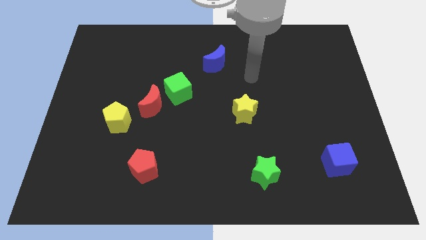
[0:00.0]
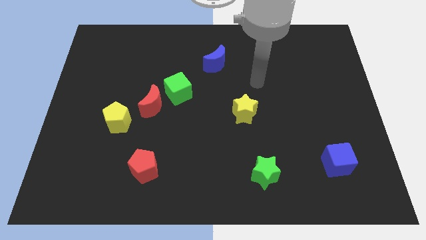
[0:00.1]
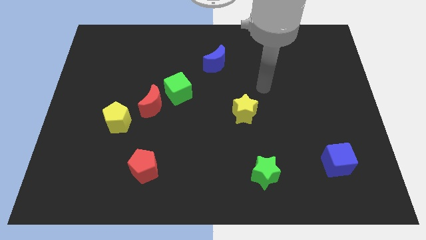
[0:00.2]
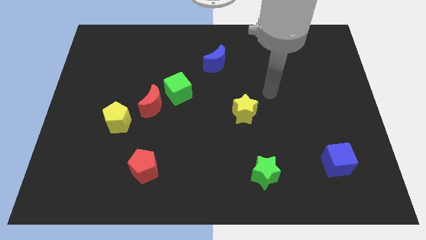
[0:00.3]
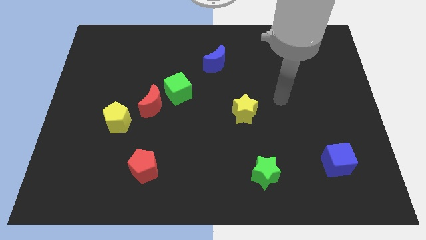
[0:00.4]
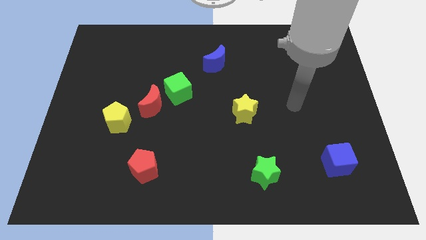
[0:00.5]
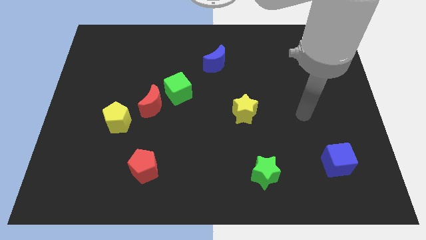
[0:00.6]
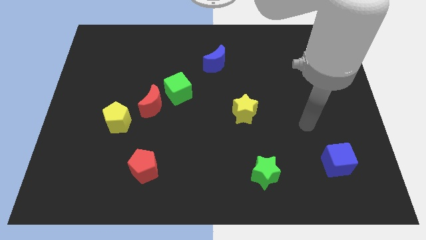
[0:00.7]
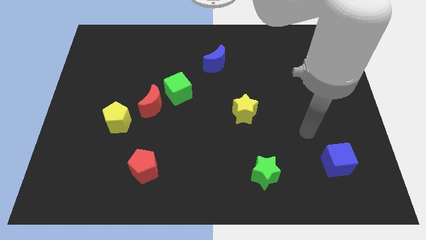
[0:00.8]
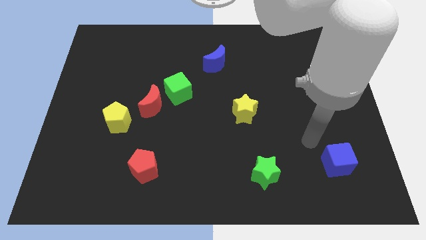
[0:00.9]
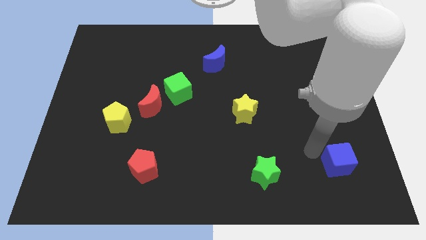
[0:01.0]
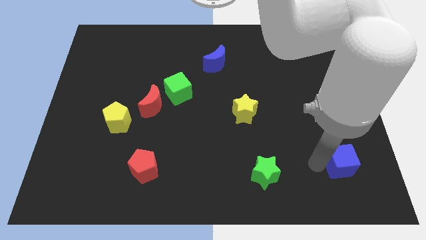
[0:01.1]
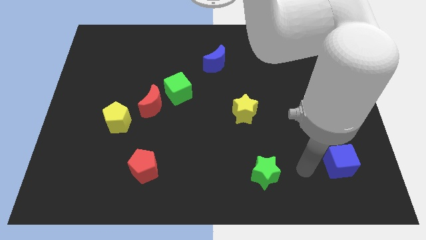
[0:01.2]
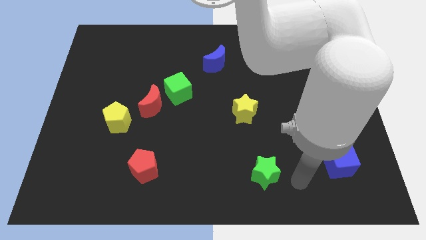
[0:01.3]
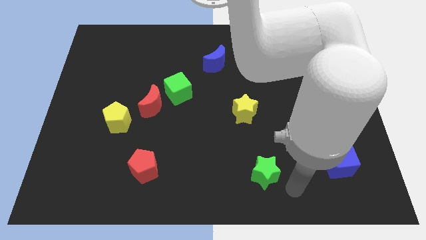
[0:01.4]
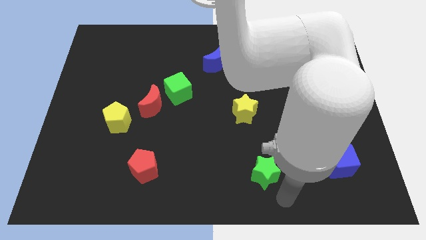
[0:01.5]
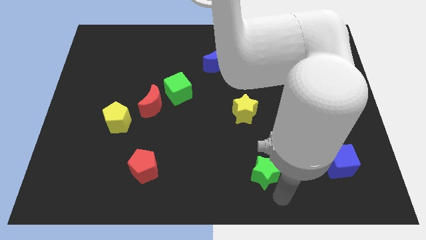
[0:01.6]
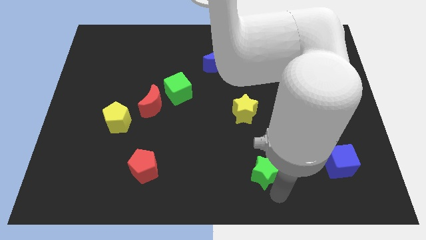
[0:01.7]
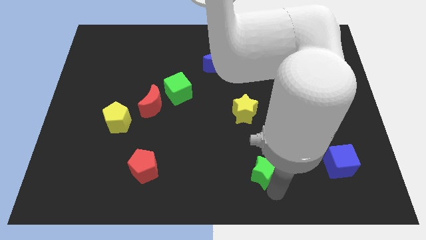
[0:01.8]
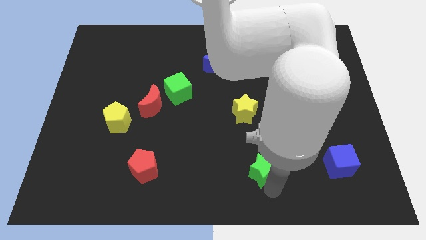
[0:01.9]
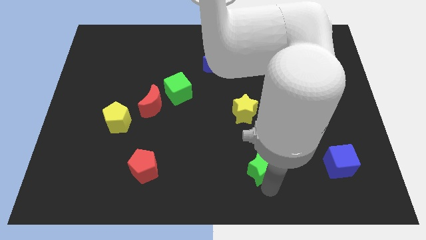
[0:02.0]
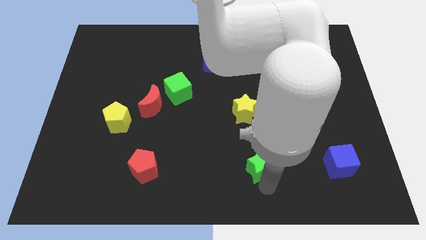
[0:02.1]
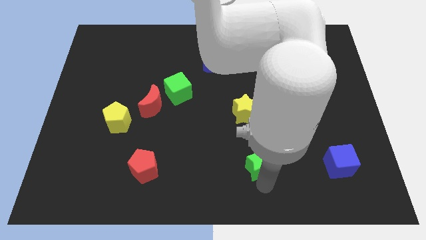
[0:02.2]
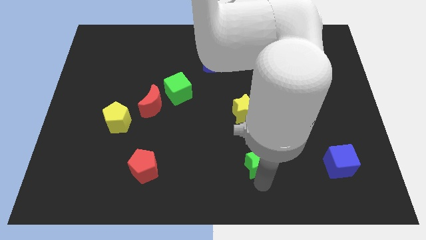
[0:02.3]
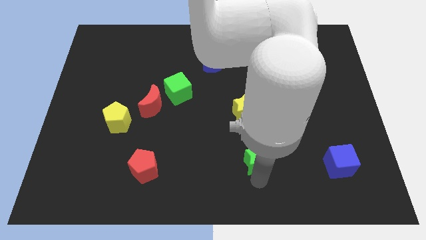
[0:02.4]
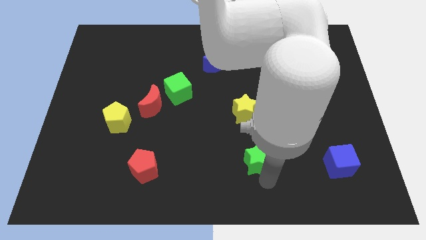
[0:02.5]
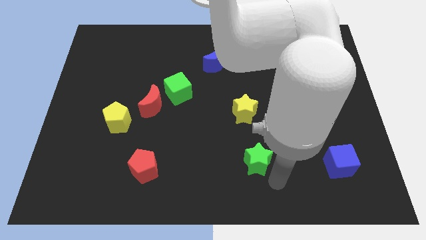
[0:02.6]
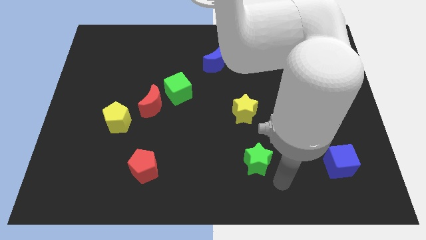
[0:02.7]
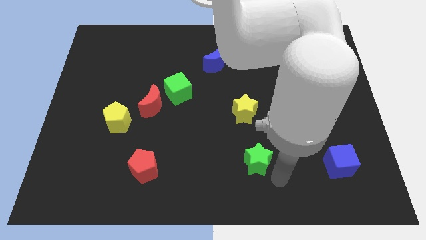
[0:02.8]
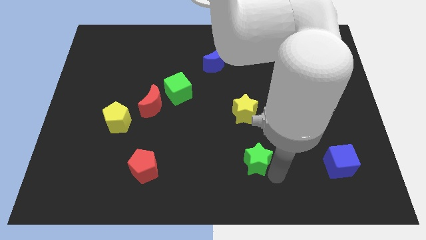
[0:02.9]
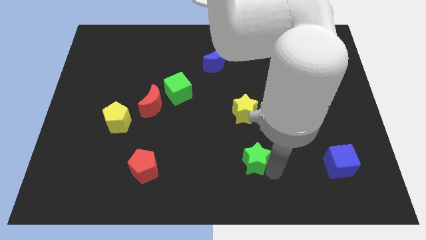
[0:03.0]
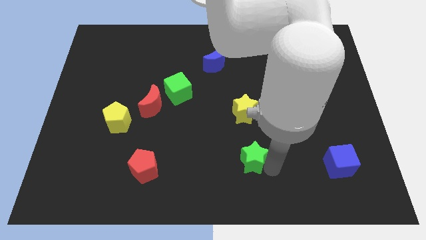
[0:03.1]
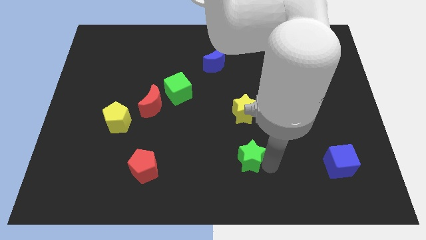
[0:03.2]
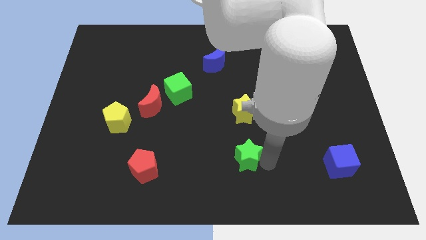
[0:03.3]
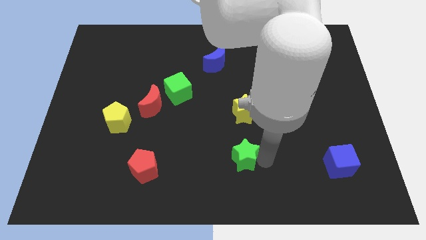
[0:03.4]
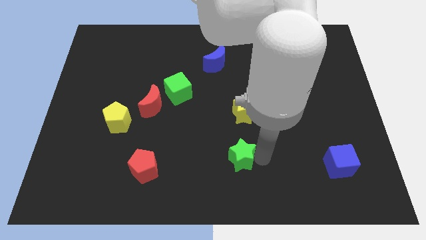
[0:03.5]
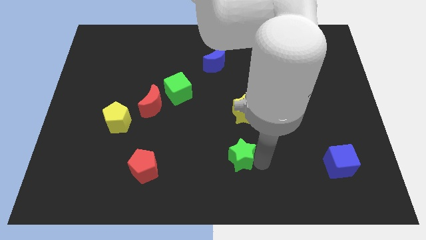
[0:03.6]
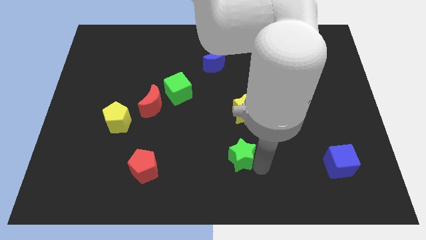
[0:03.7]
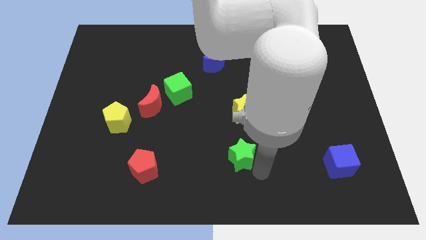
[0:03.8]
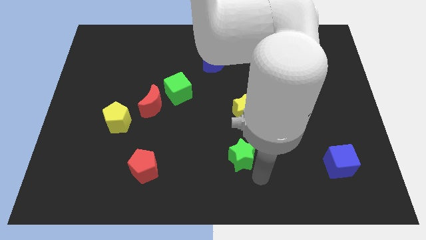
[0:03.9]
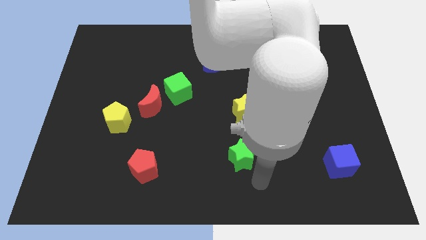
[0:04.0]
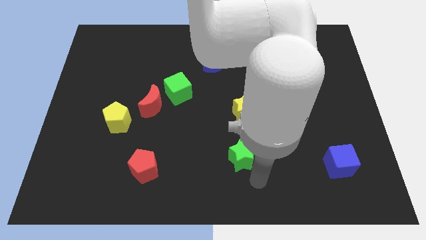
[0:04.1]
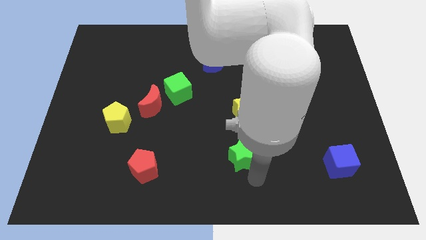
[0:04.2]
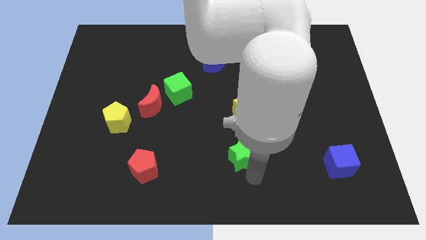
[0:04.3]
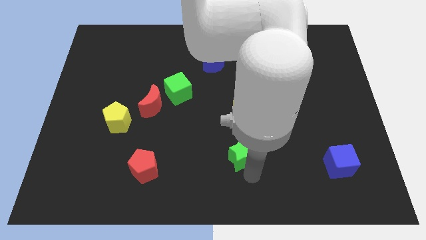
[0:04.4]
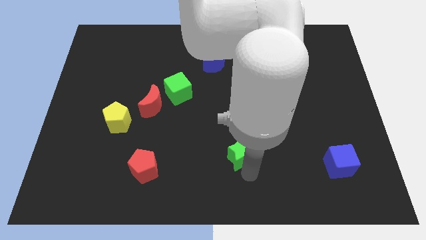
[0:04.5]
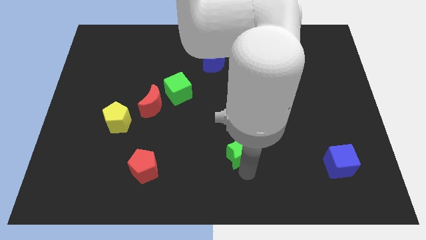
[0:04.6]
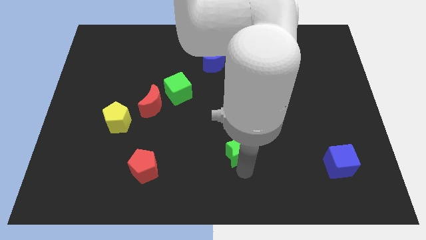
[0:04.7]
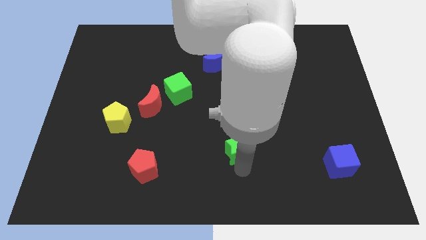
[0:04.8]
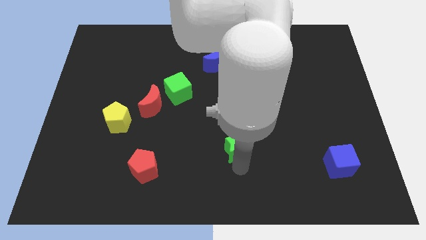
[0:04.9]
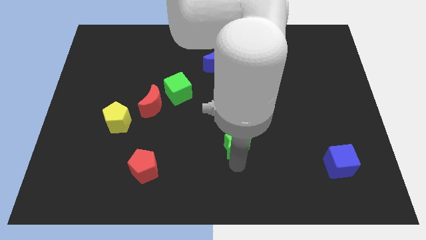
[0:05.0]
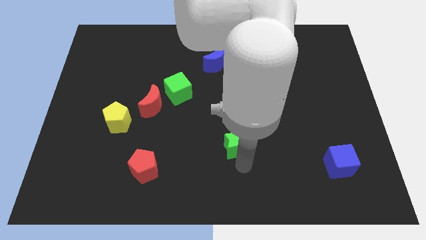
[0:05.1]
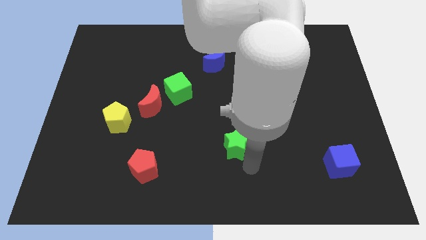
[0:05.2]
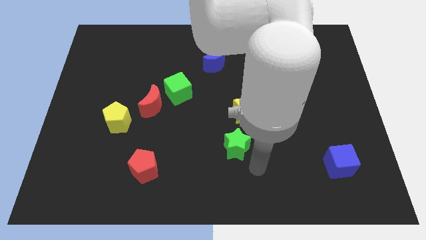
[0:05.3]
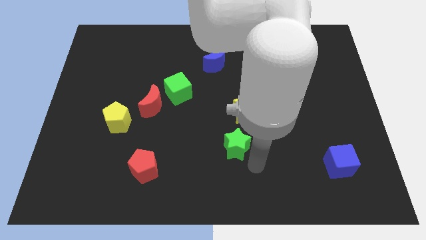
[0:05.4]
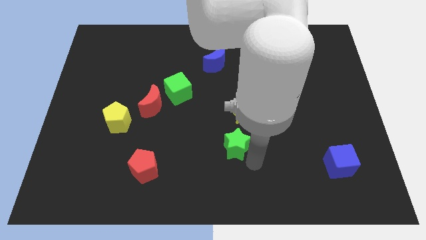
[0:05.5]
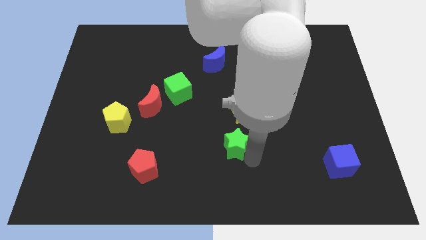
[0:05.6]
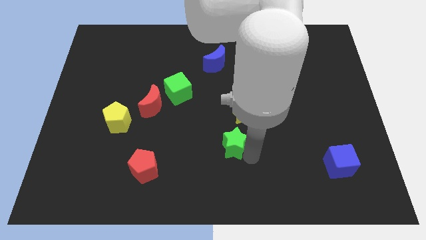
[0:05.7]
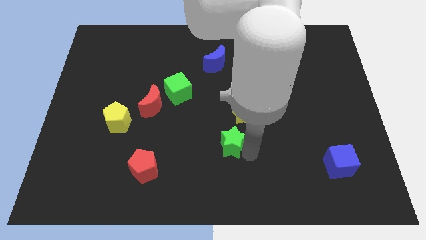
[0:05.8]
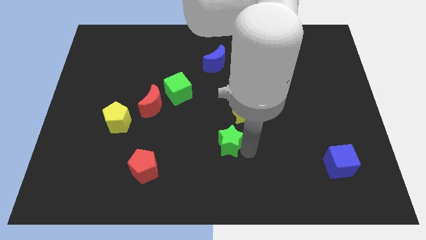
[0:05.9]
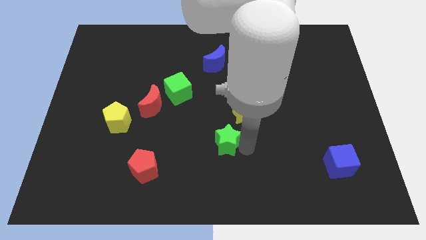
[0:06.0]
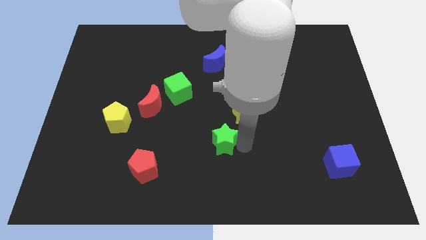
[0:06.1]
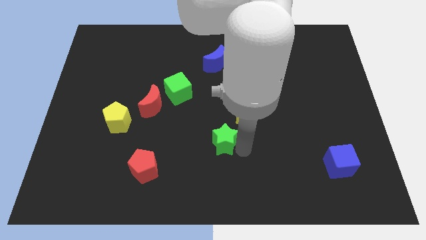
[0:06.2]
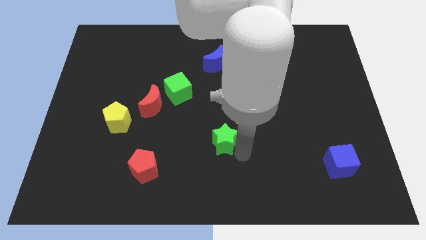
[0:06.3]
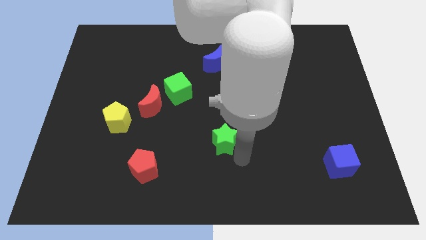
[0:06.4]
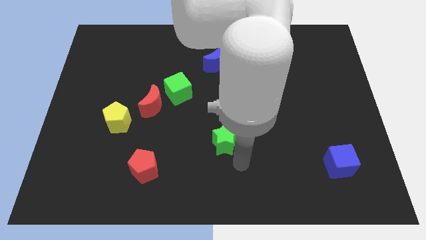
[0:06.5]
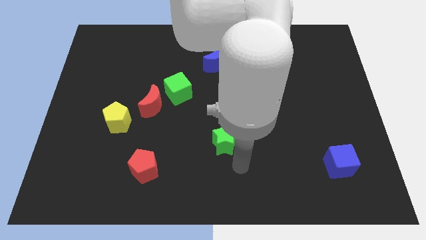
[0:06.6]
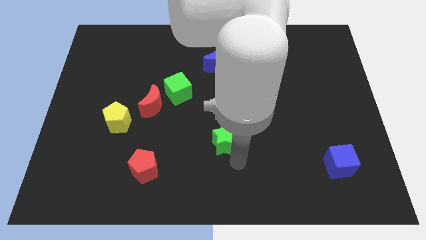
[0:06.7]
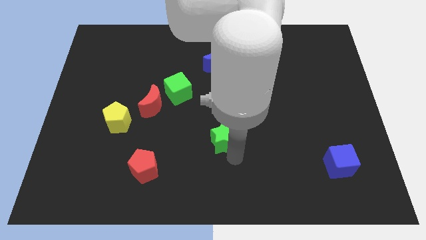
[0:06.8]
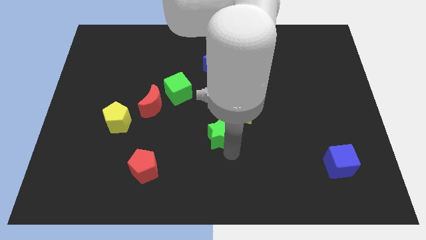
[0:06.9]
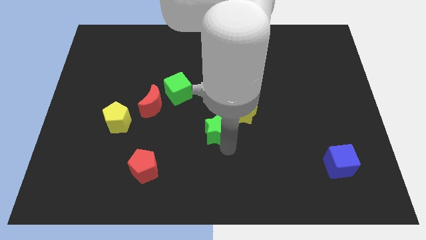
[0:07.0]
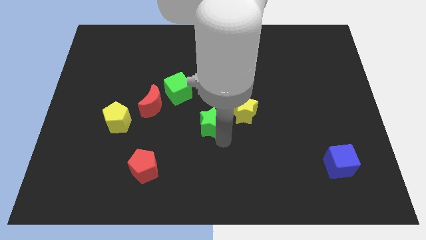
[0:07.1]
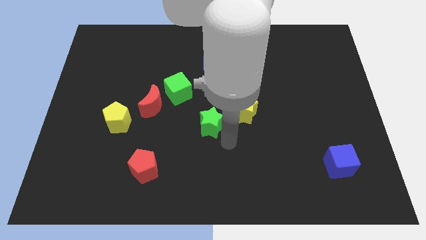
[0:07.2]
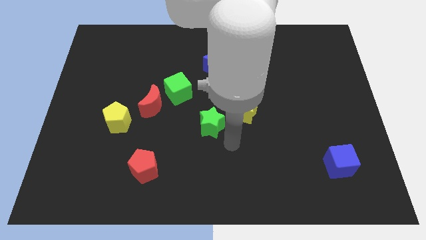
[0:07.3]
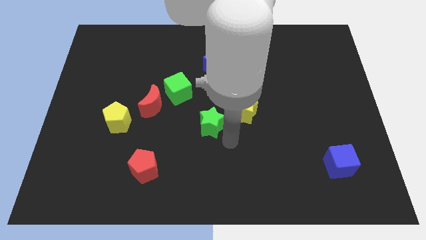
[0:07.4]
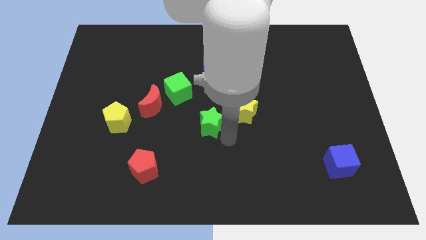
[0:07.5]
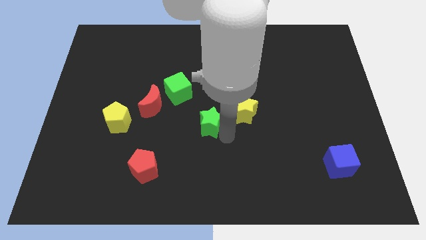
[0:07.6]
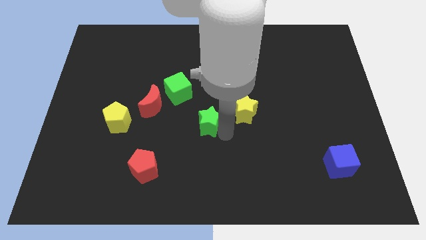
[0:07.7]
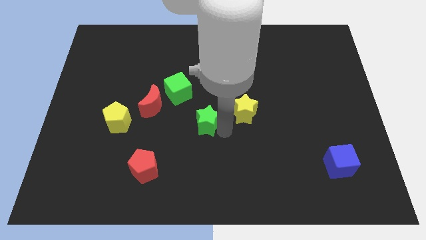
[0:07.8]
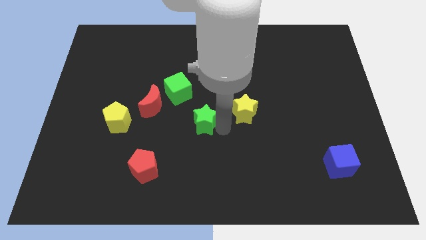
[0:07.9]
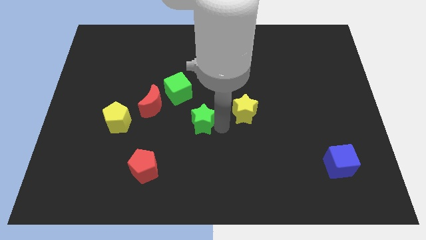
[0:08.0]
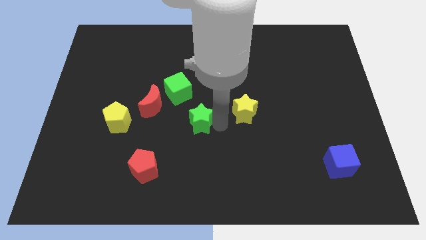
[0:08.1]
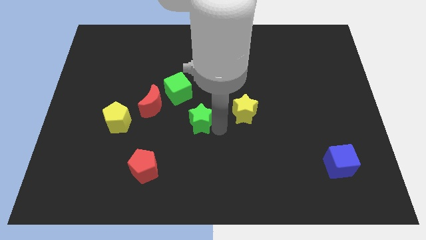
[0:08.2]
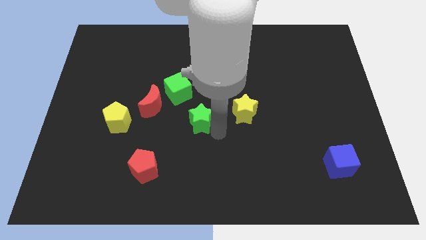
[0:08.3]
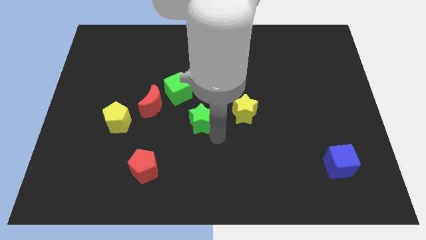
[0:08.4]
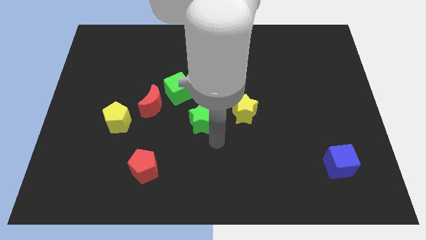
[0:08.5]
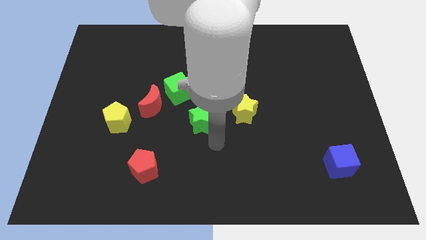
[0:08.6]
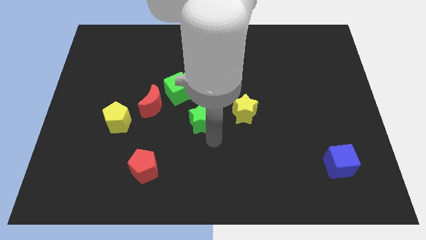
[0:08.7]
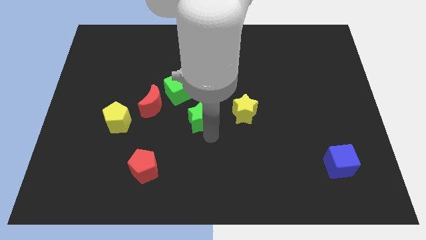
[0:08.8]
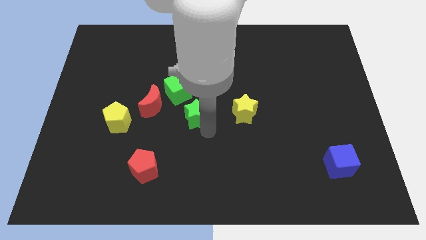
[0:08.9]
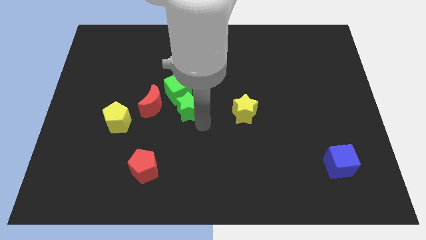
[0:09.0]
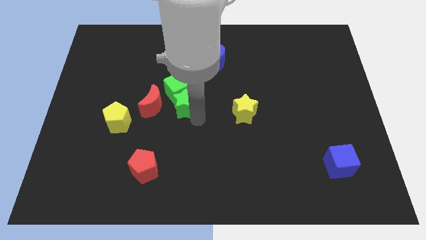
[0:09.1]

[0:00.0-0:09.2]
move the green star towards the green cube
